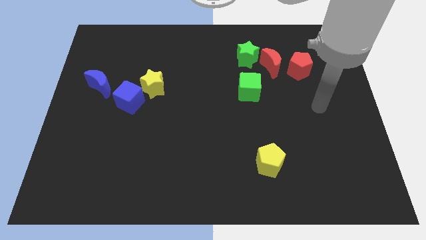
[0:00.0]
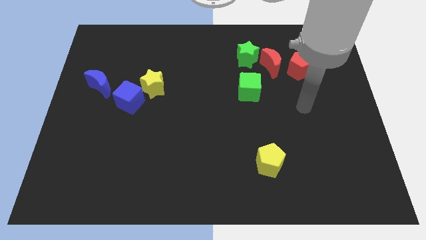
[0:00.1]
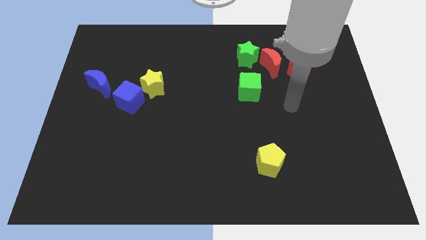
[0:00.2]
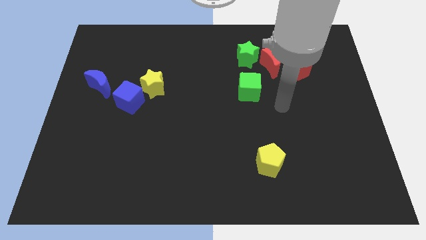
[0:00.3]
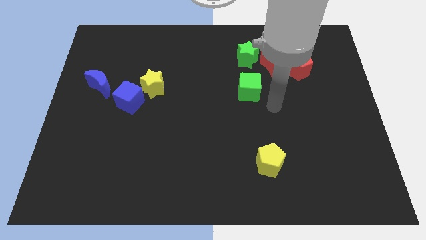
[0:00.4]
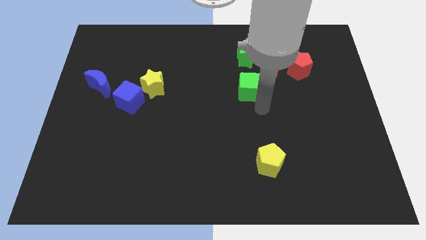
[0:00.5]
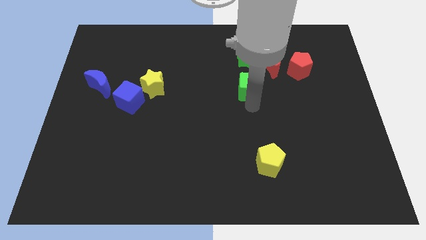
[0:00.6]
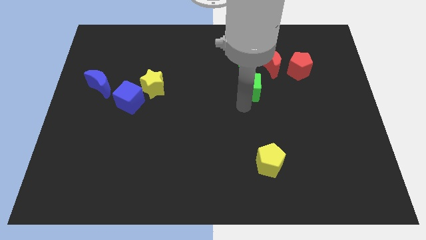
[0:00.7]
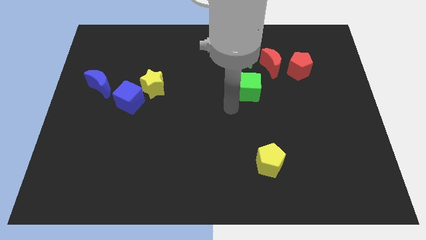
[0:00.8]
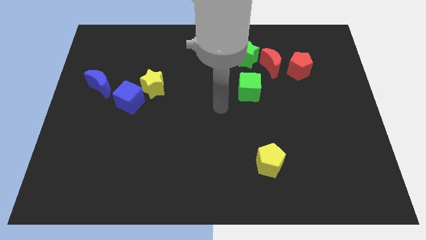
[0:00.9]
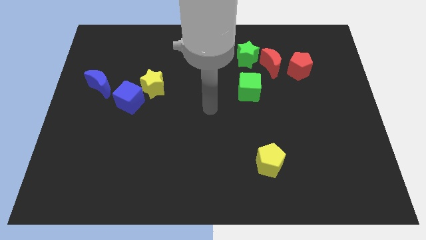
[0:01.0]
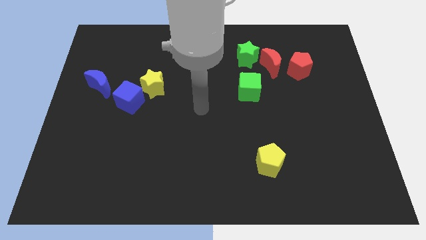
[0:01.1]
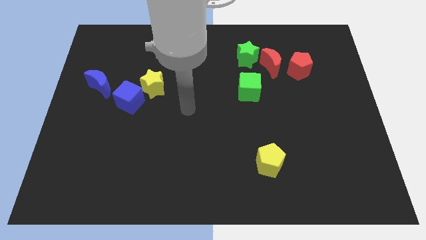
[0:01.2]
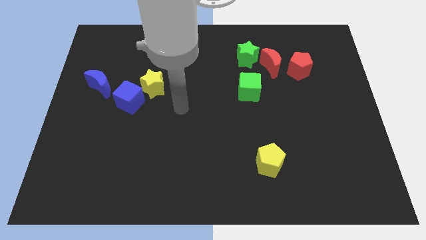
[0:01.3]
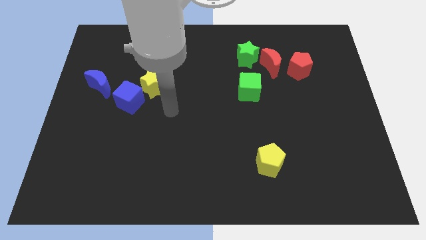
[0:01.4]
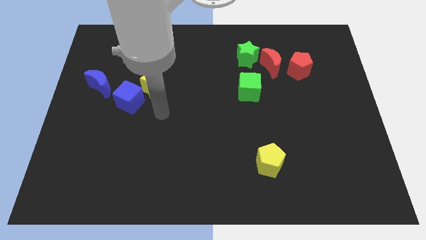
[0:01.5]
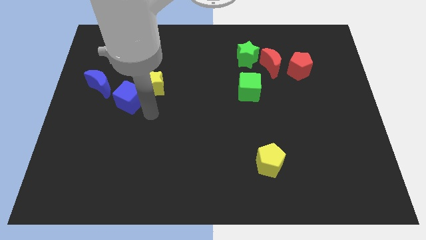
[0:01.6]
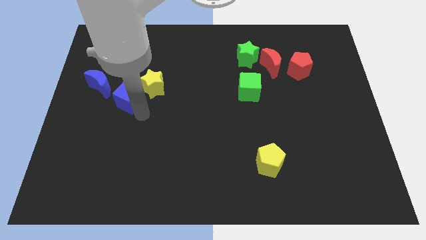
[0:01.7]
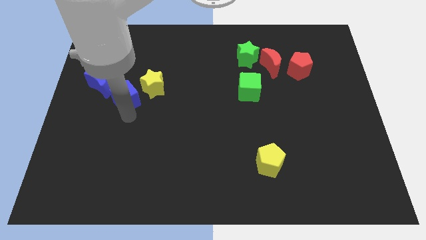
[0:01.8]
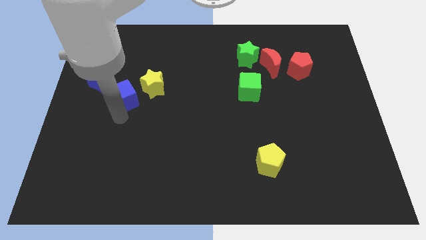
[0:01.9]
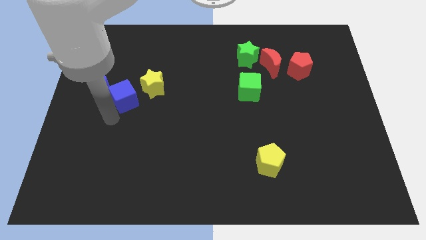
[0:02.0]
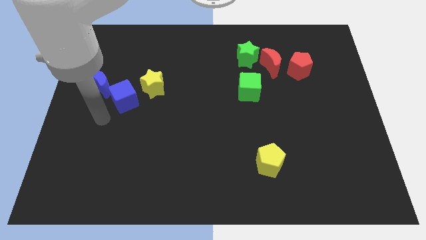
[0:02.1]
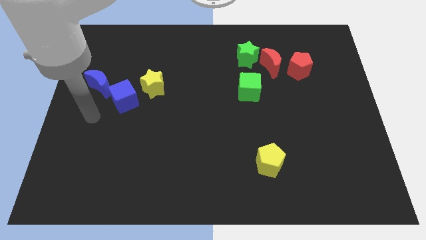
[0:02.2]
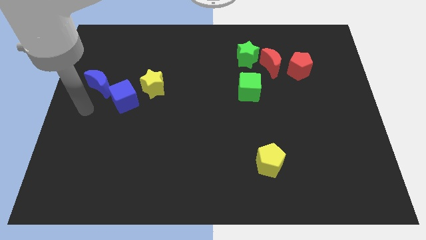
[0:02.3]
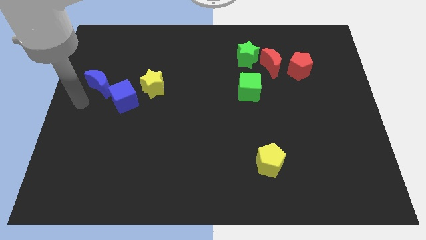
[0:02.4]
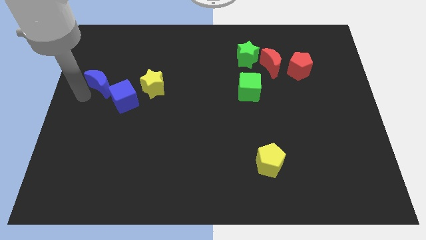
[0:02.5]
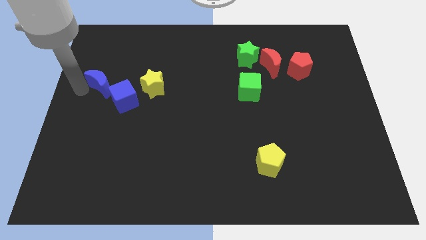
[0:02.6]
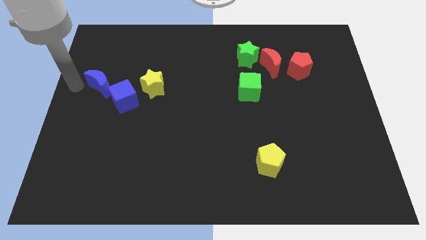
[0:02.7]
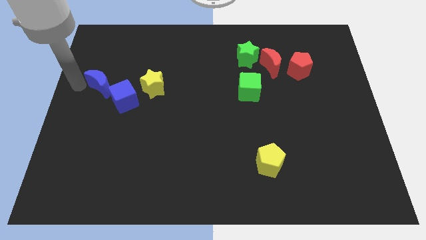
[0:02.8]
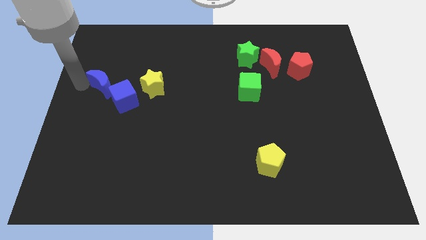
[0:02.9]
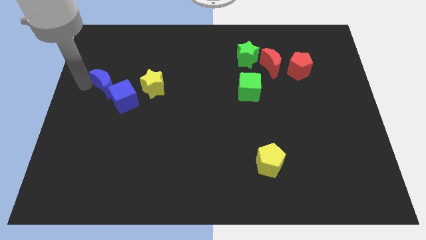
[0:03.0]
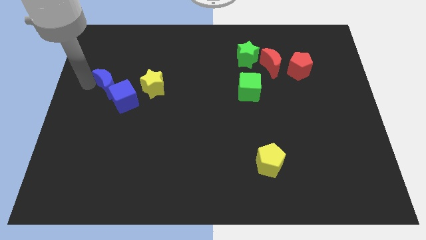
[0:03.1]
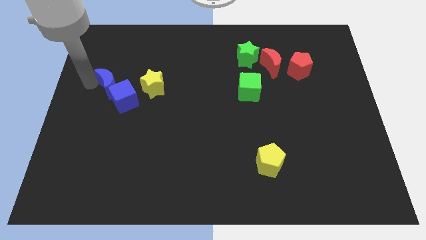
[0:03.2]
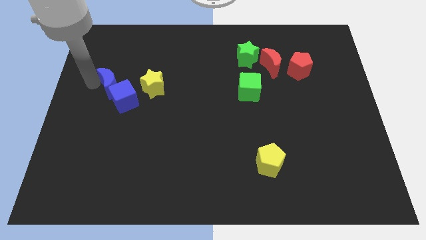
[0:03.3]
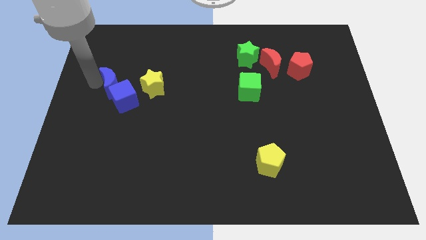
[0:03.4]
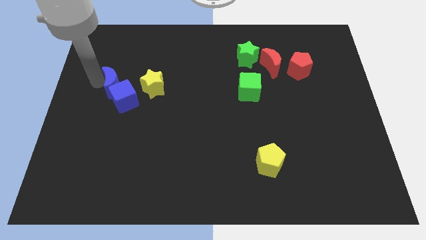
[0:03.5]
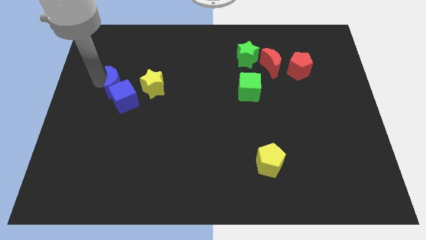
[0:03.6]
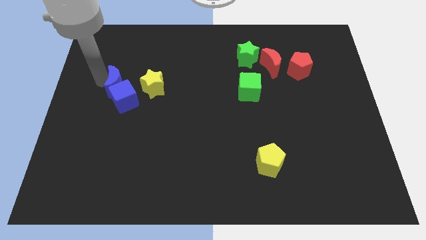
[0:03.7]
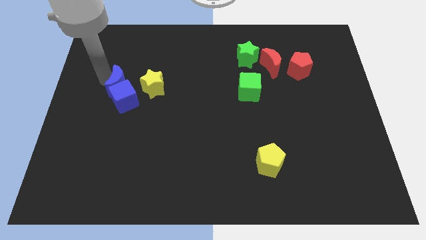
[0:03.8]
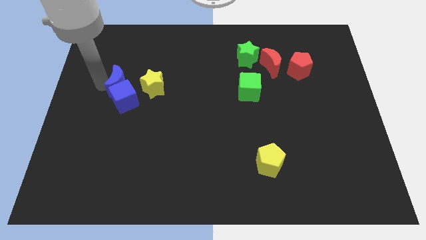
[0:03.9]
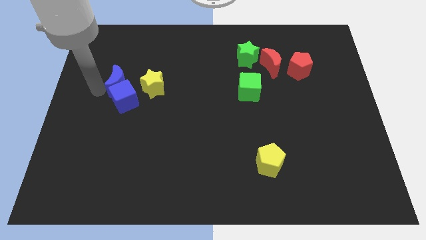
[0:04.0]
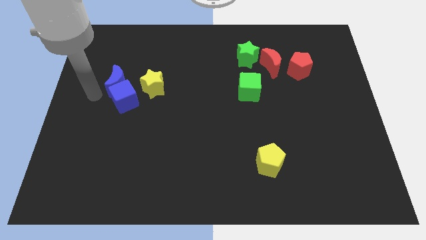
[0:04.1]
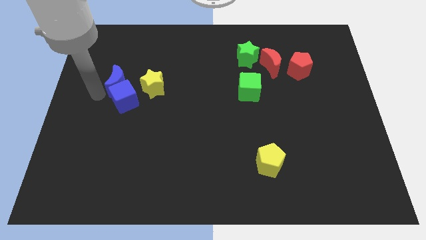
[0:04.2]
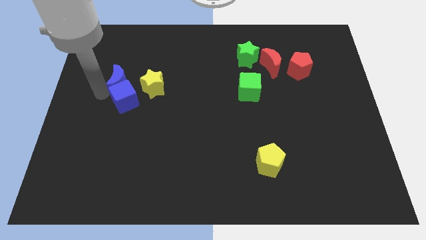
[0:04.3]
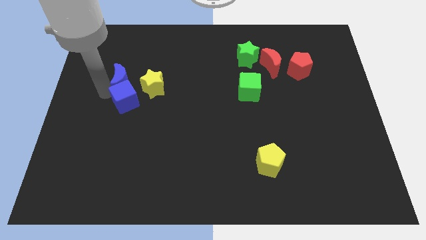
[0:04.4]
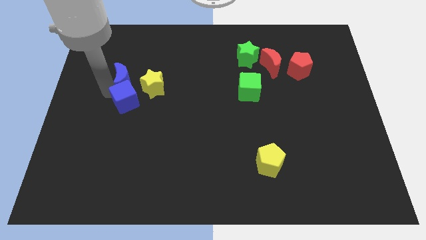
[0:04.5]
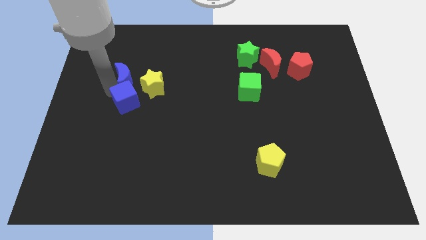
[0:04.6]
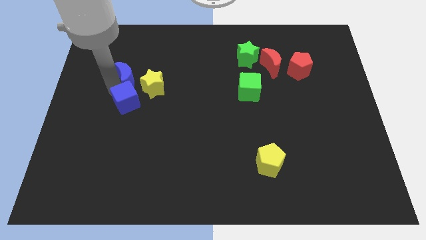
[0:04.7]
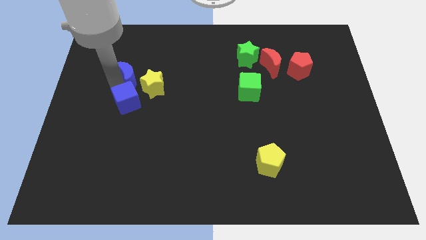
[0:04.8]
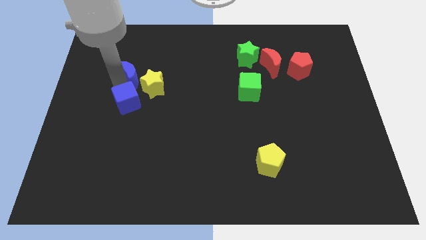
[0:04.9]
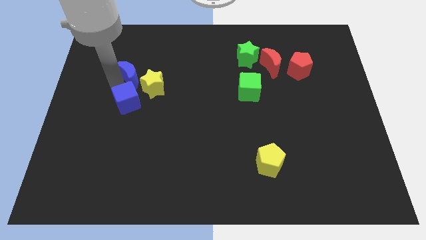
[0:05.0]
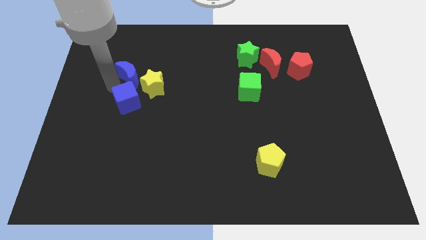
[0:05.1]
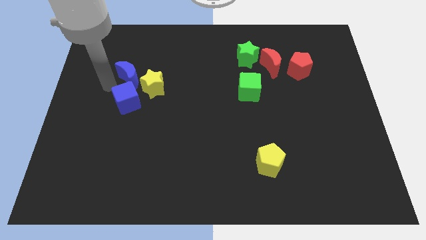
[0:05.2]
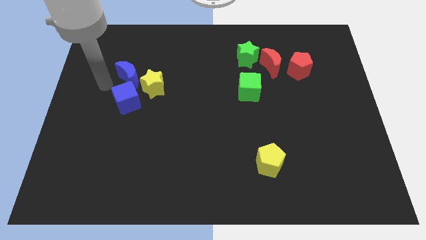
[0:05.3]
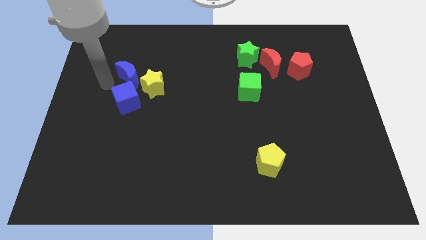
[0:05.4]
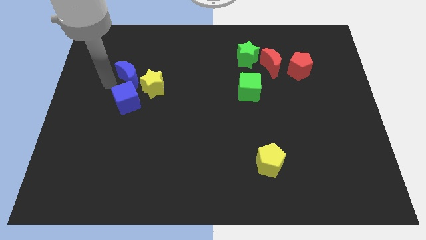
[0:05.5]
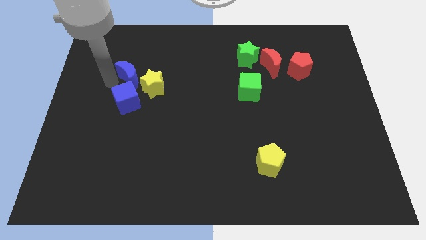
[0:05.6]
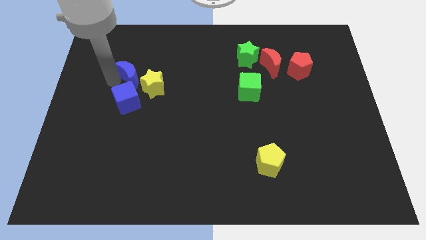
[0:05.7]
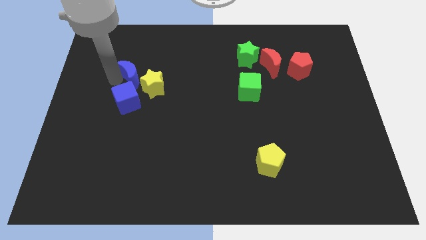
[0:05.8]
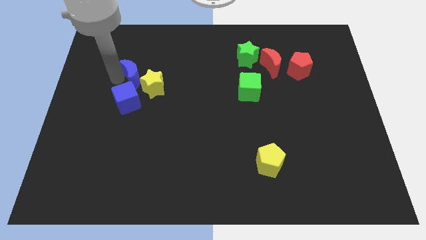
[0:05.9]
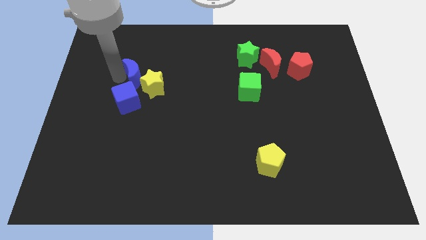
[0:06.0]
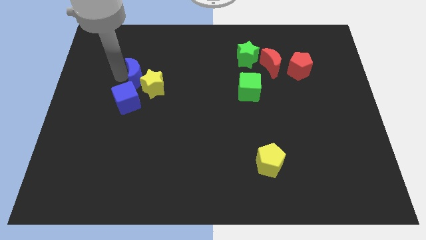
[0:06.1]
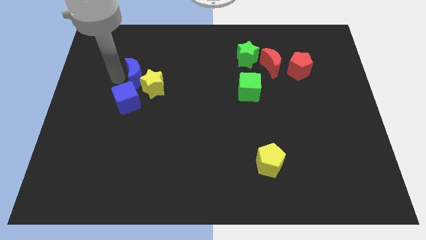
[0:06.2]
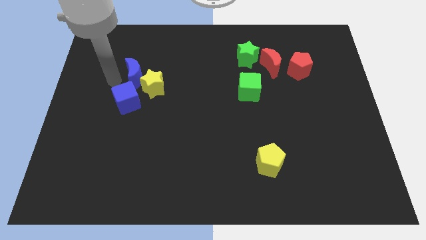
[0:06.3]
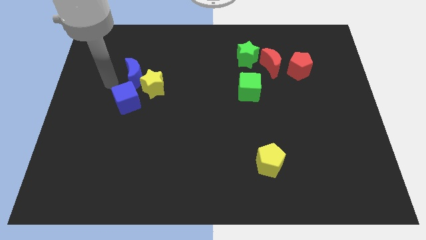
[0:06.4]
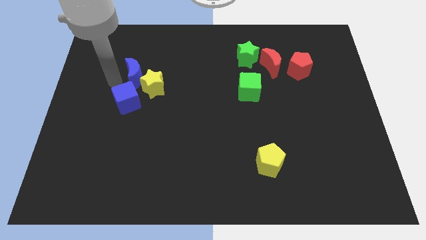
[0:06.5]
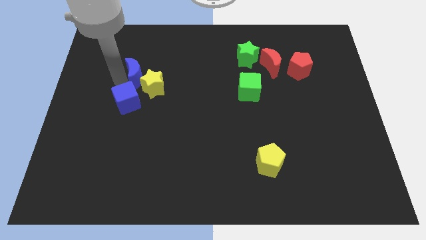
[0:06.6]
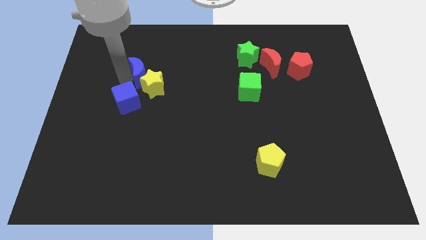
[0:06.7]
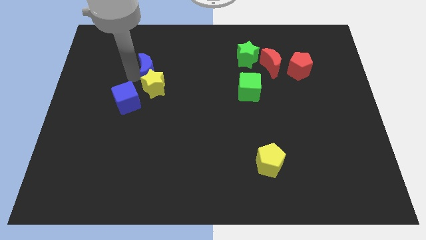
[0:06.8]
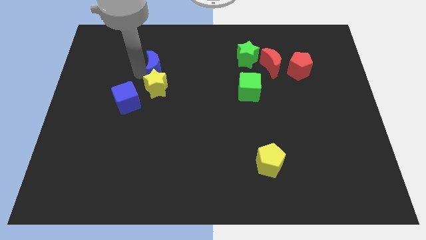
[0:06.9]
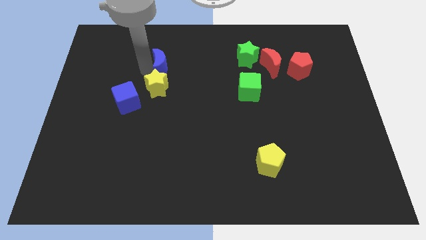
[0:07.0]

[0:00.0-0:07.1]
put the blue moon to the top right of the yellow star
